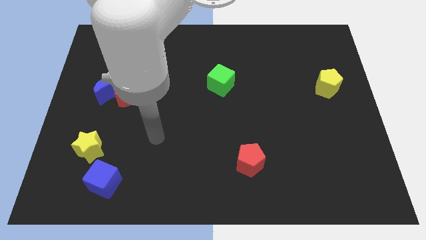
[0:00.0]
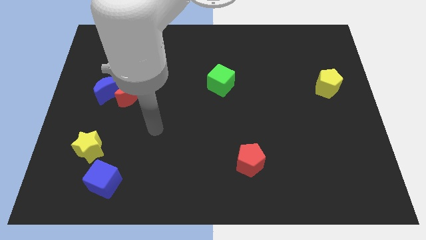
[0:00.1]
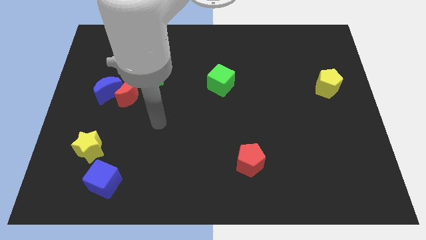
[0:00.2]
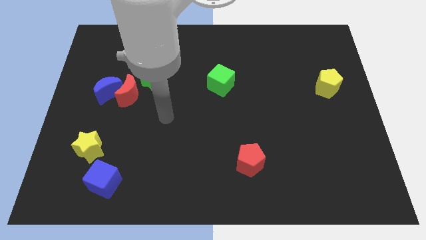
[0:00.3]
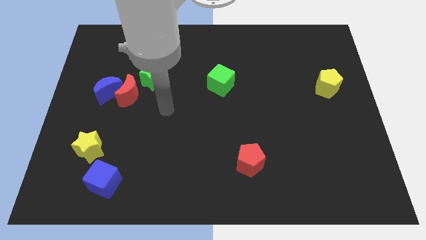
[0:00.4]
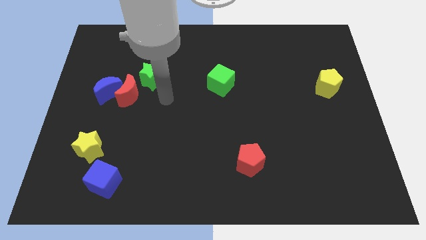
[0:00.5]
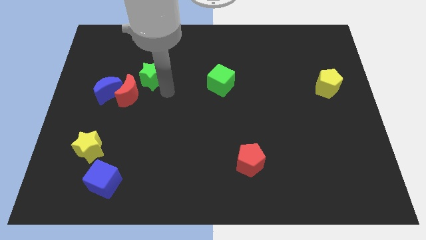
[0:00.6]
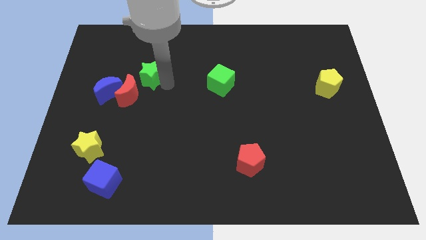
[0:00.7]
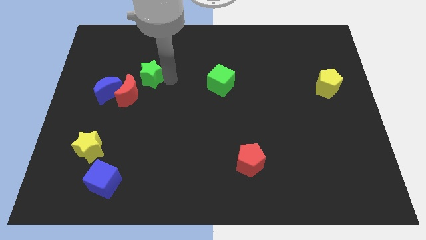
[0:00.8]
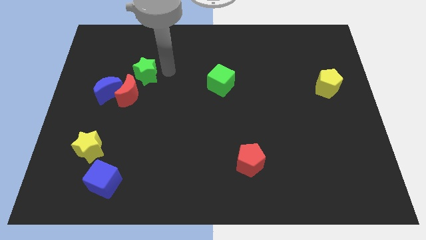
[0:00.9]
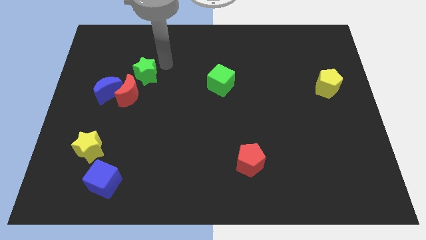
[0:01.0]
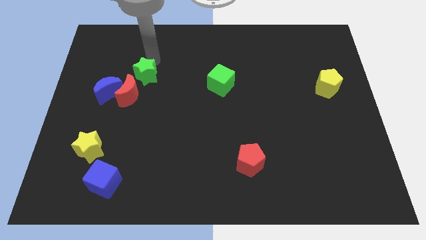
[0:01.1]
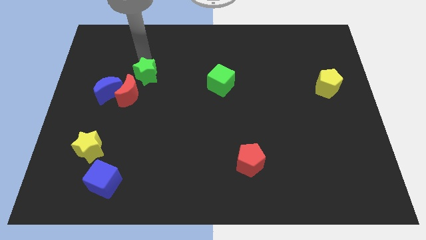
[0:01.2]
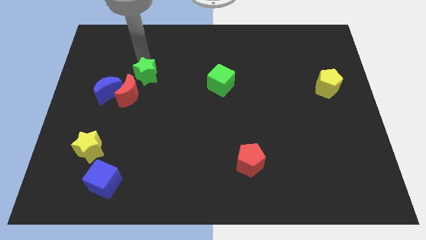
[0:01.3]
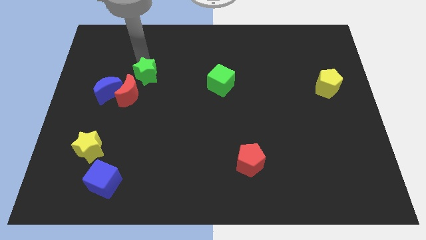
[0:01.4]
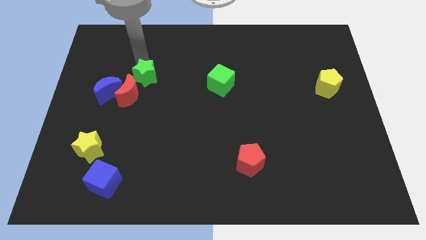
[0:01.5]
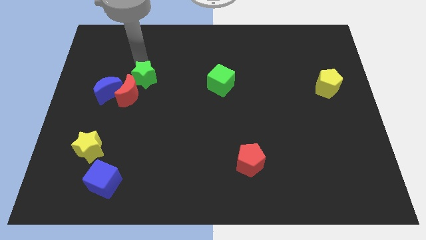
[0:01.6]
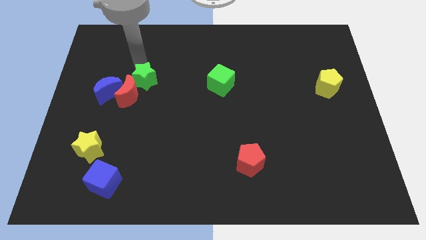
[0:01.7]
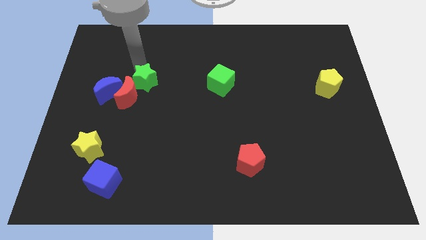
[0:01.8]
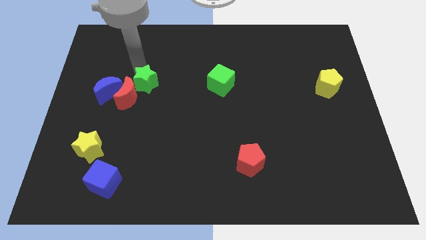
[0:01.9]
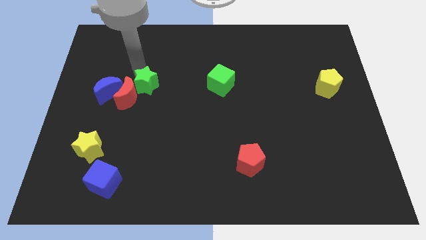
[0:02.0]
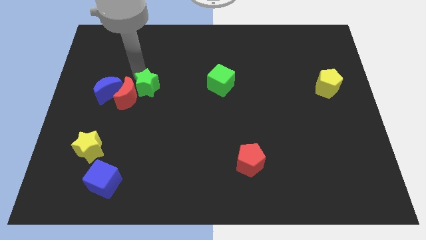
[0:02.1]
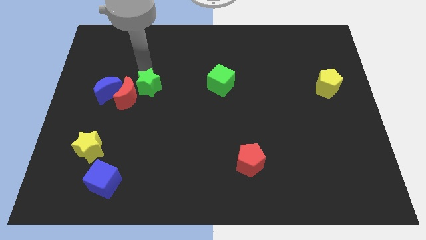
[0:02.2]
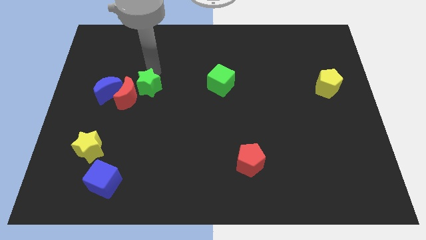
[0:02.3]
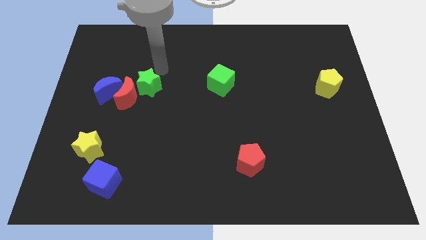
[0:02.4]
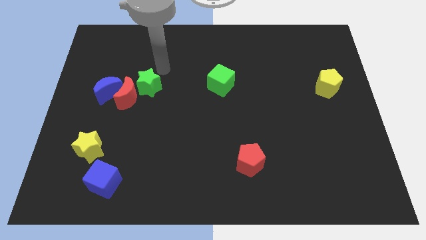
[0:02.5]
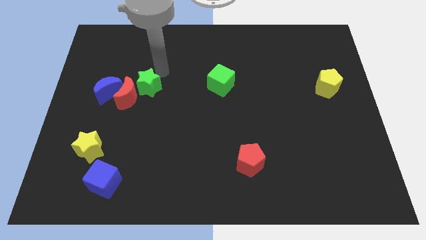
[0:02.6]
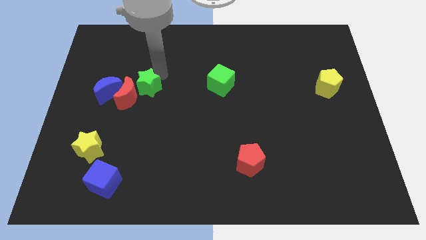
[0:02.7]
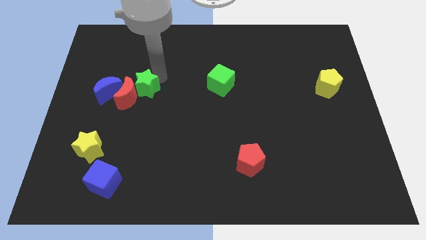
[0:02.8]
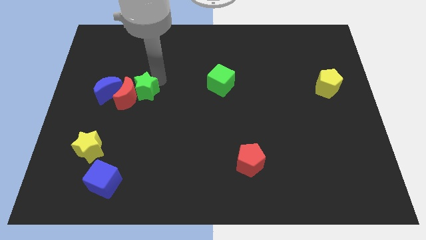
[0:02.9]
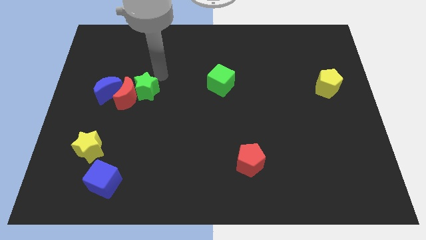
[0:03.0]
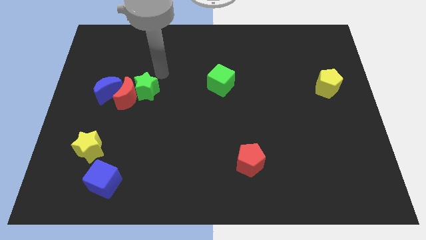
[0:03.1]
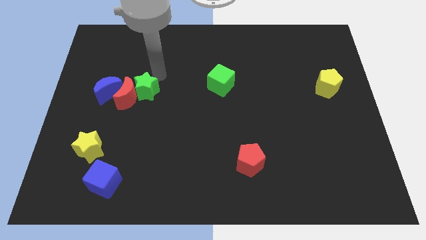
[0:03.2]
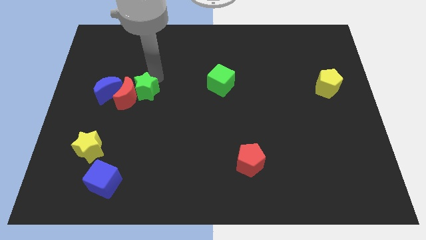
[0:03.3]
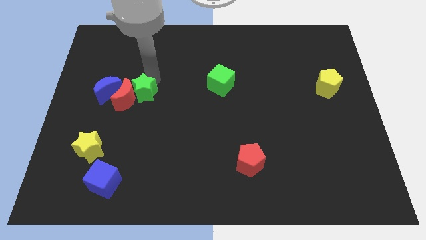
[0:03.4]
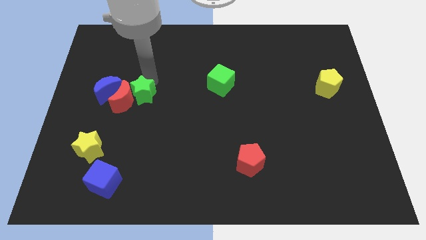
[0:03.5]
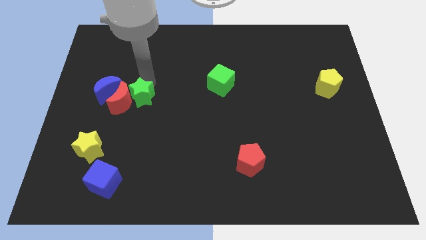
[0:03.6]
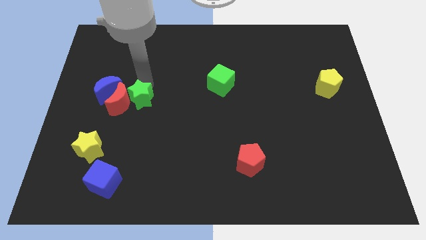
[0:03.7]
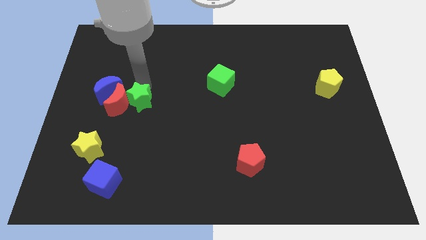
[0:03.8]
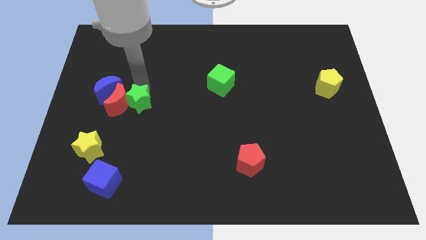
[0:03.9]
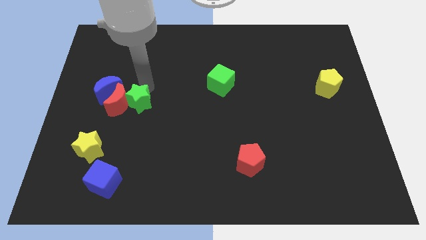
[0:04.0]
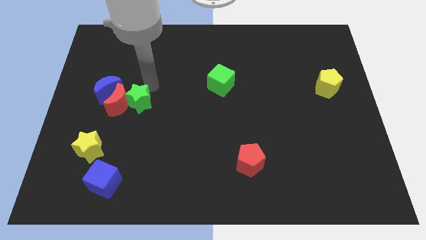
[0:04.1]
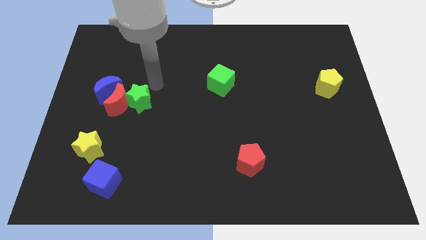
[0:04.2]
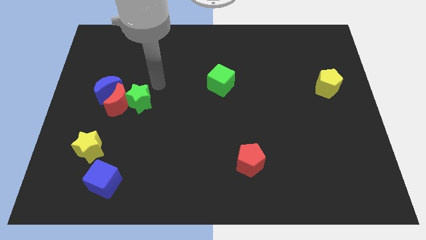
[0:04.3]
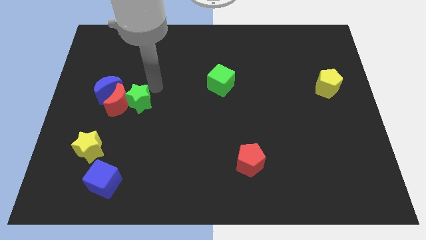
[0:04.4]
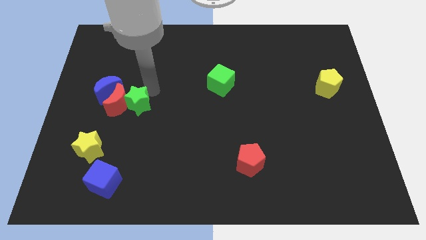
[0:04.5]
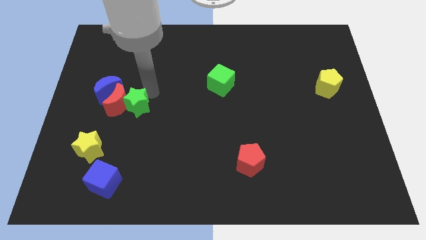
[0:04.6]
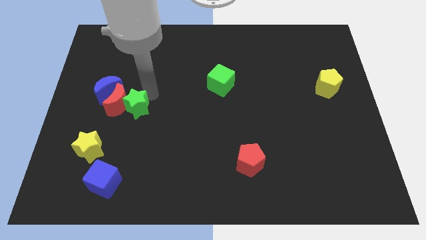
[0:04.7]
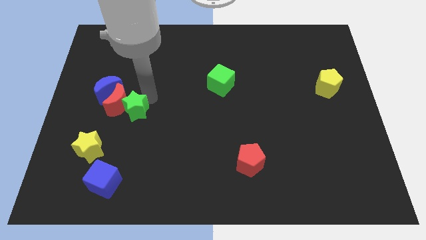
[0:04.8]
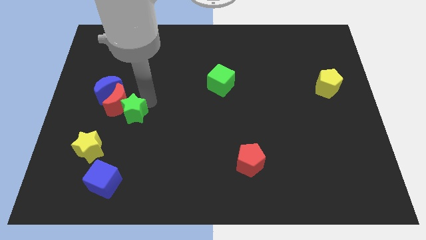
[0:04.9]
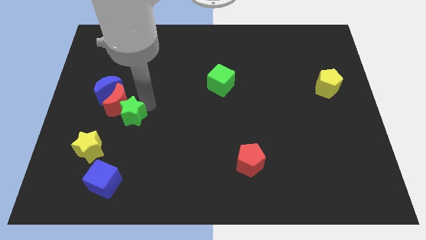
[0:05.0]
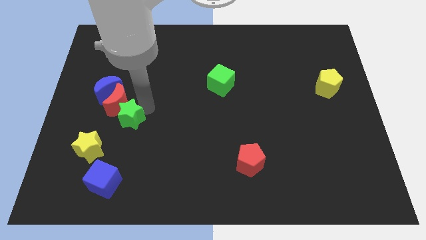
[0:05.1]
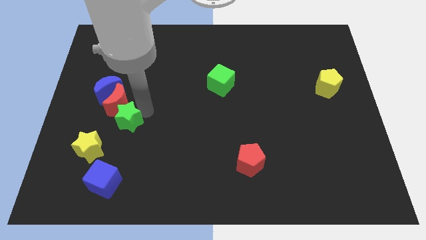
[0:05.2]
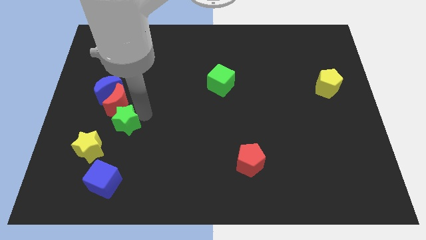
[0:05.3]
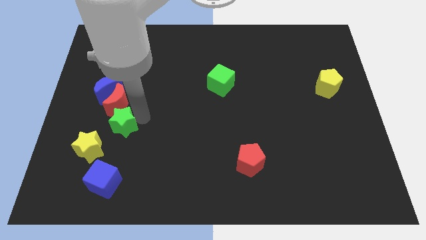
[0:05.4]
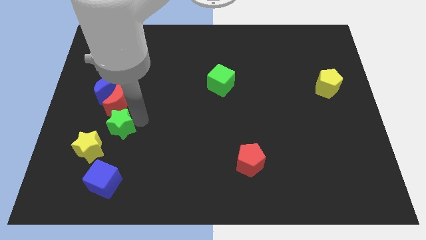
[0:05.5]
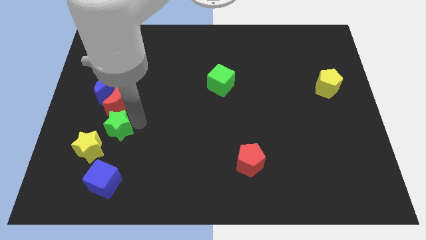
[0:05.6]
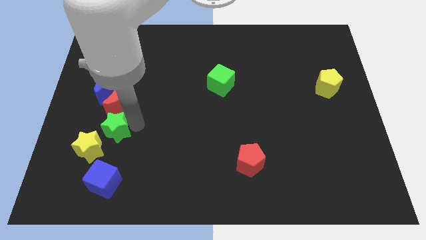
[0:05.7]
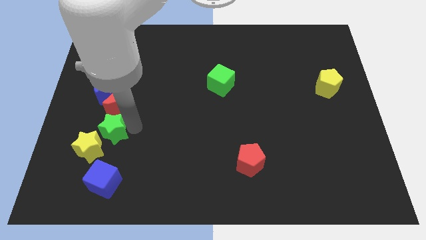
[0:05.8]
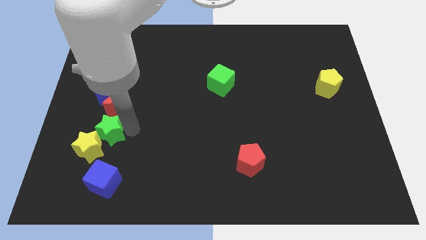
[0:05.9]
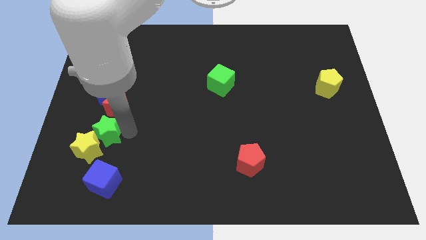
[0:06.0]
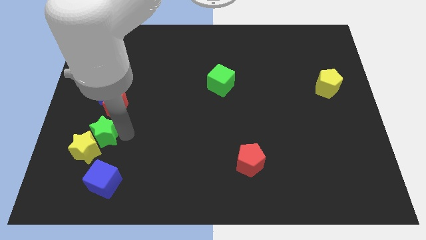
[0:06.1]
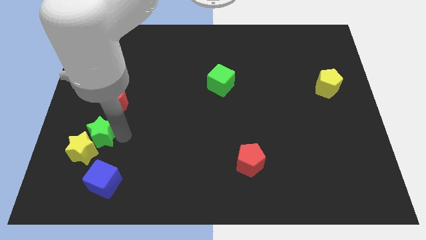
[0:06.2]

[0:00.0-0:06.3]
move the green star diagonally down and to the left of the red moon
